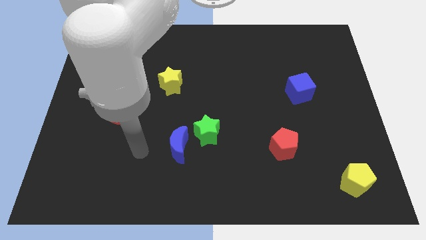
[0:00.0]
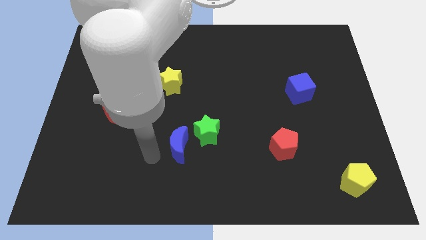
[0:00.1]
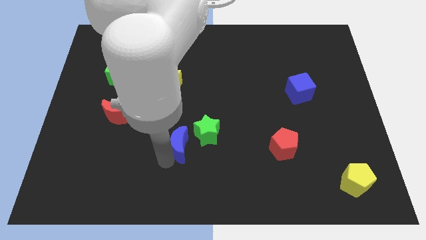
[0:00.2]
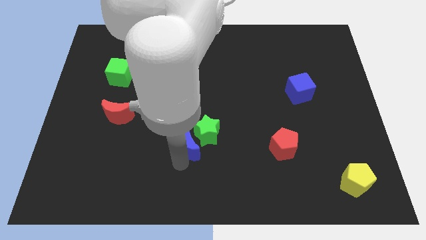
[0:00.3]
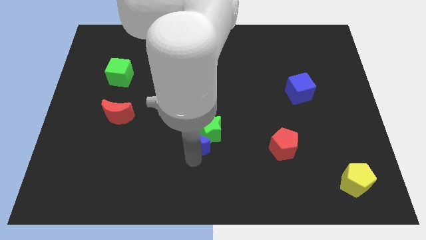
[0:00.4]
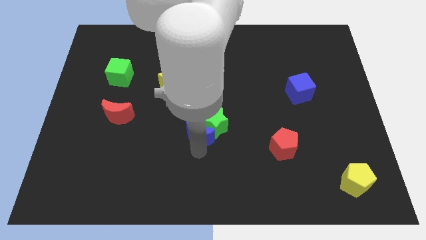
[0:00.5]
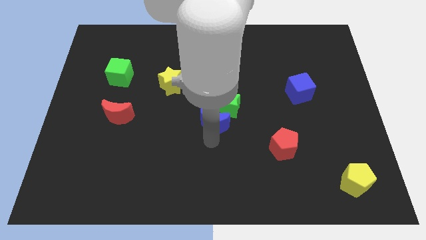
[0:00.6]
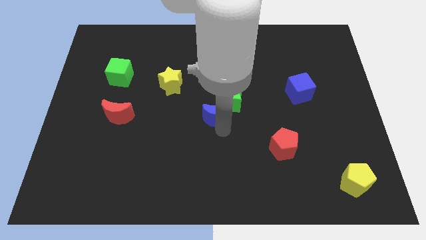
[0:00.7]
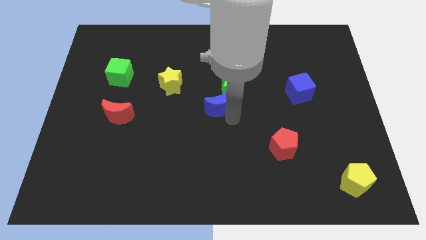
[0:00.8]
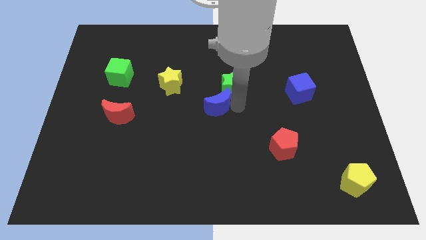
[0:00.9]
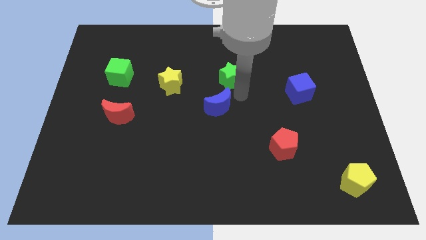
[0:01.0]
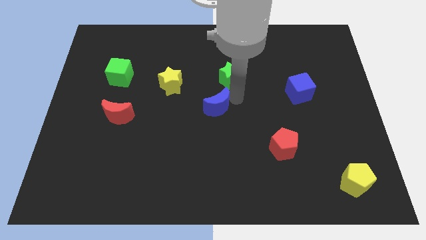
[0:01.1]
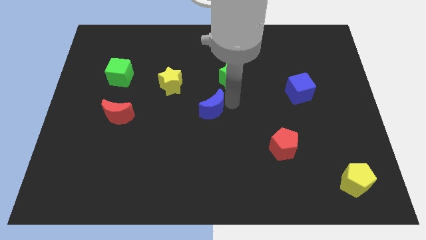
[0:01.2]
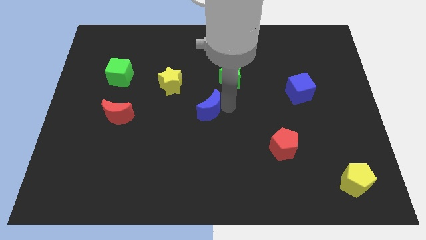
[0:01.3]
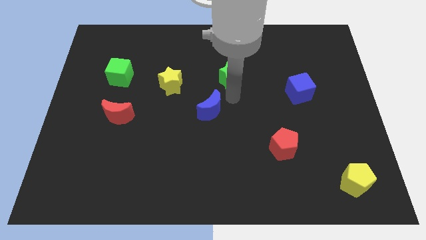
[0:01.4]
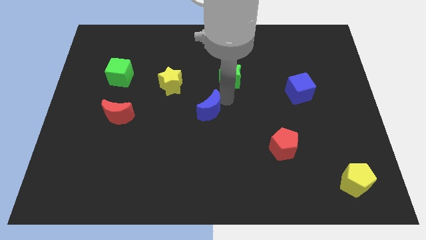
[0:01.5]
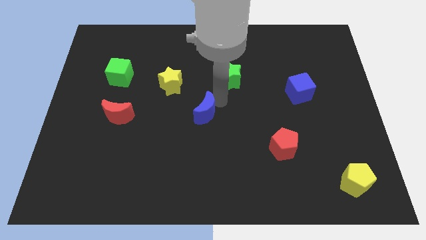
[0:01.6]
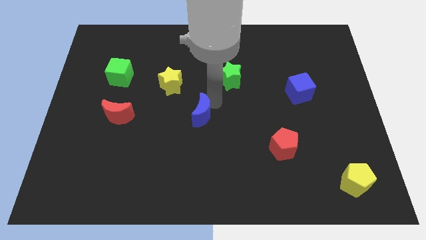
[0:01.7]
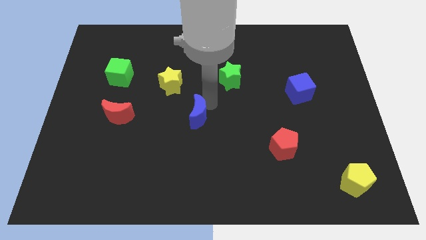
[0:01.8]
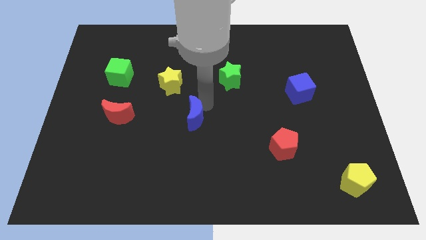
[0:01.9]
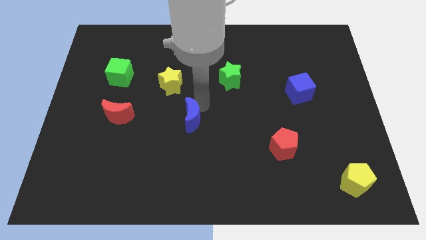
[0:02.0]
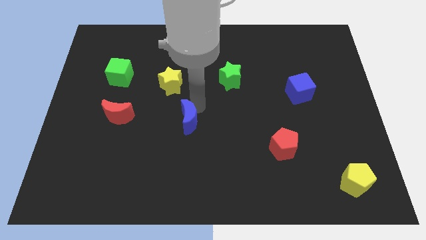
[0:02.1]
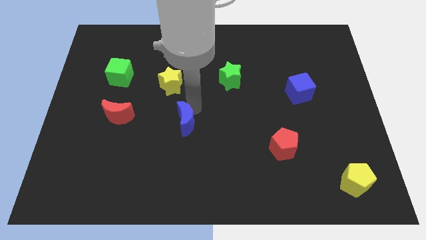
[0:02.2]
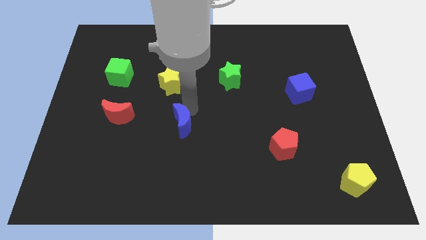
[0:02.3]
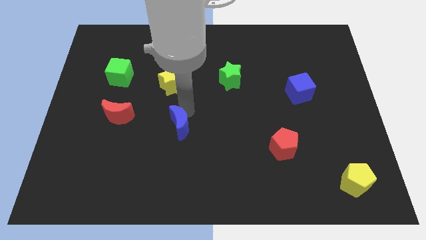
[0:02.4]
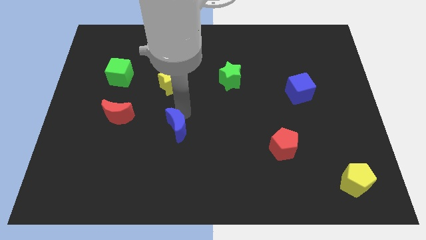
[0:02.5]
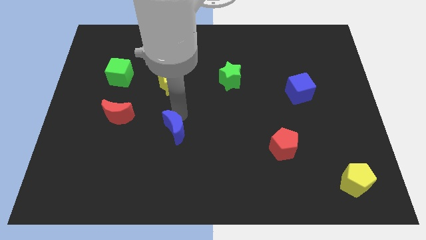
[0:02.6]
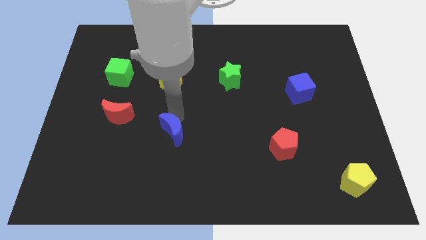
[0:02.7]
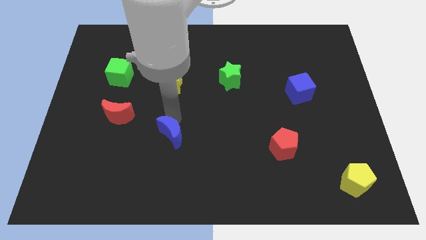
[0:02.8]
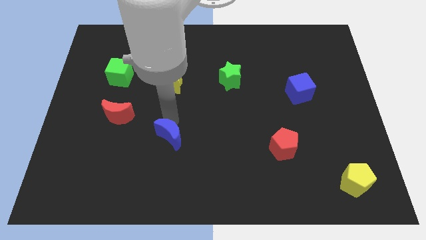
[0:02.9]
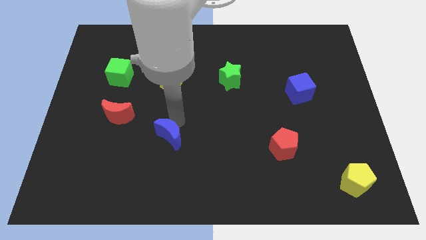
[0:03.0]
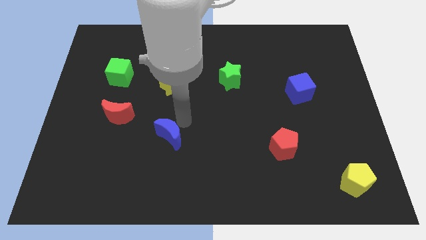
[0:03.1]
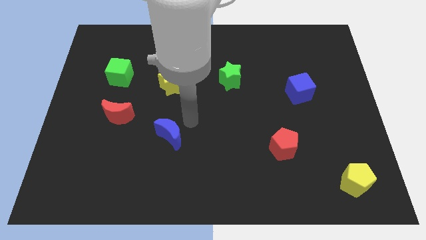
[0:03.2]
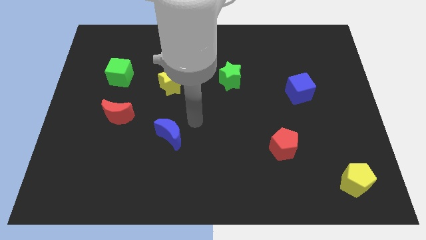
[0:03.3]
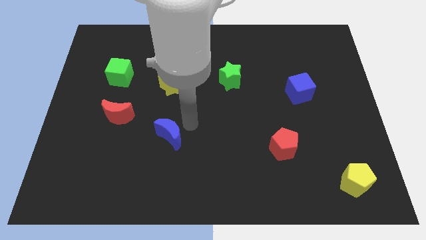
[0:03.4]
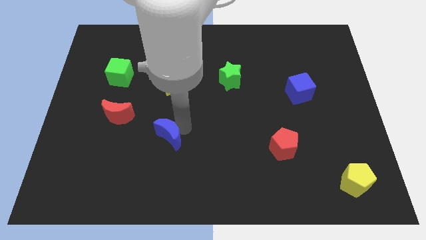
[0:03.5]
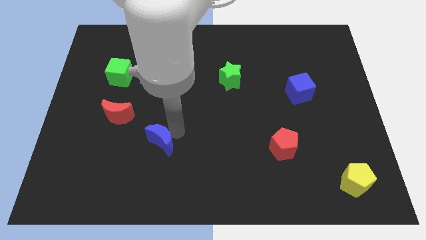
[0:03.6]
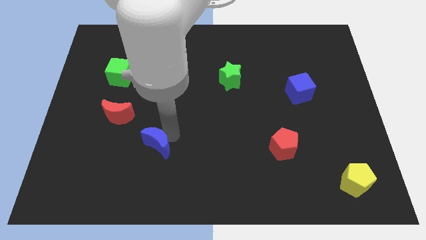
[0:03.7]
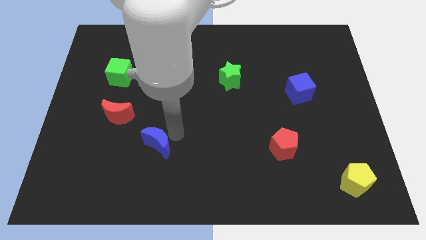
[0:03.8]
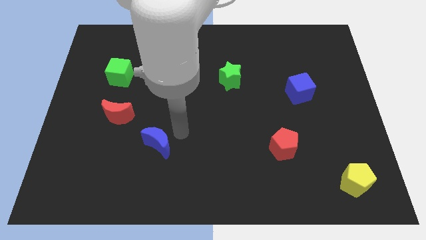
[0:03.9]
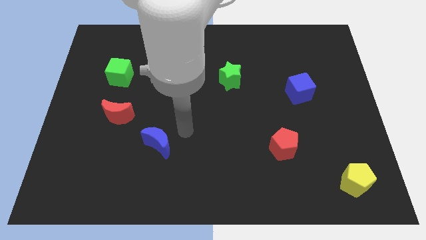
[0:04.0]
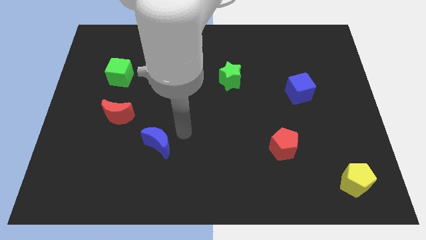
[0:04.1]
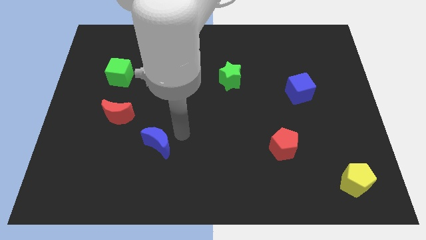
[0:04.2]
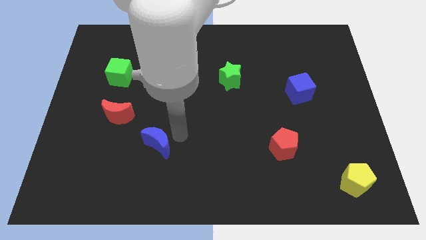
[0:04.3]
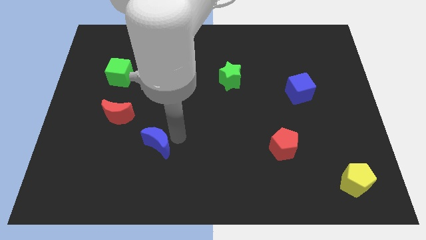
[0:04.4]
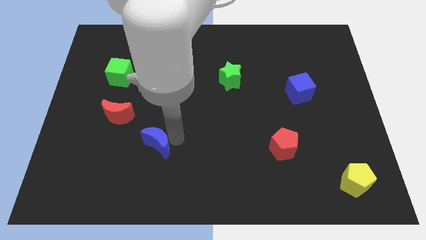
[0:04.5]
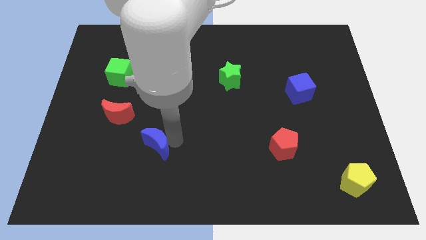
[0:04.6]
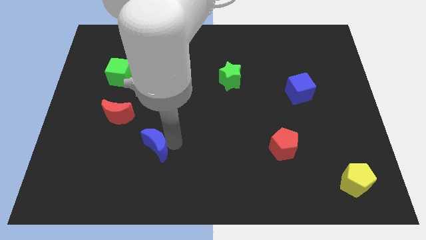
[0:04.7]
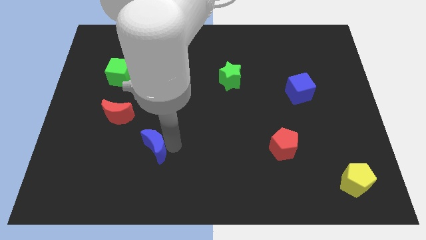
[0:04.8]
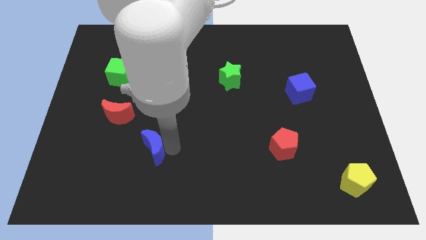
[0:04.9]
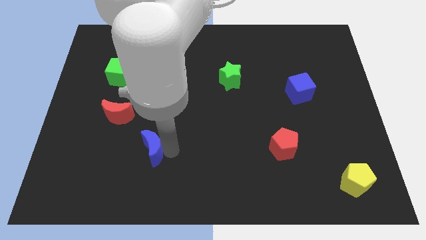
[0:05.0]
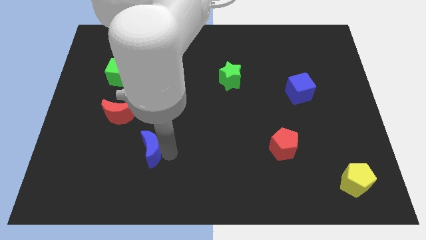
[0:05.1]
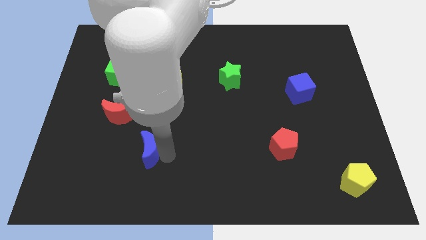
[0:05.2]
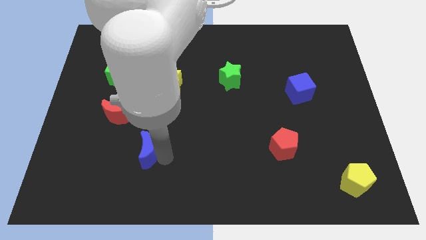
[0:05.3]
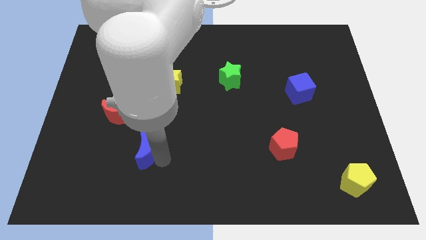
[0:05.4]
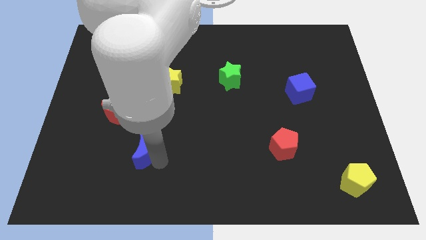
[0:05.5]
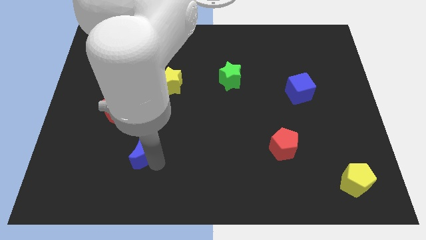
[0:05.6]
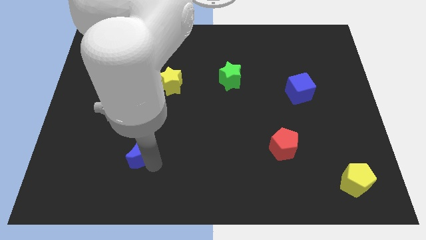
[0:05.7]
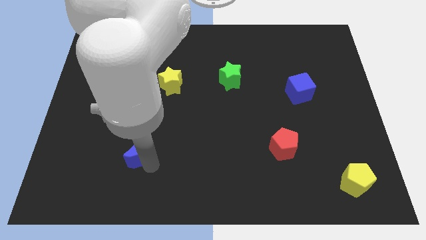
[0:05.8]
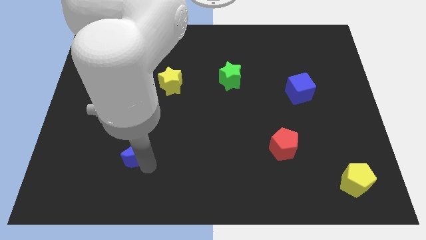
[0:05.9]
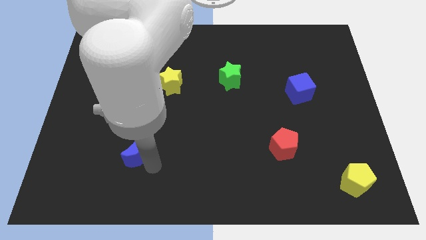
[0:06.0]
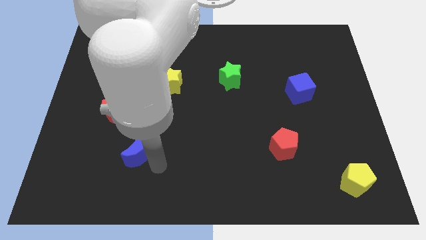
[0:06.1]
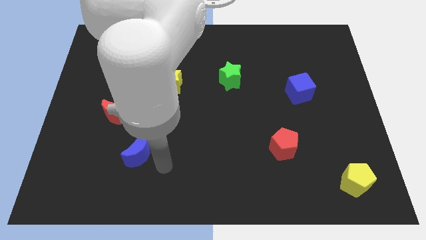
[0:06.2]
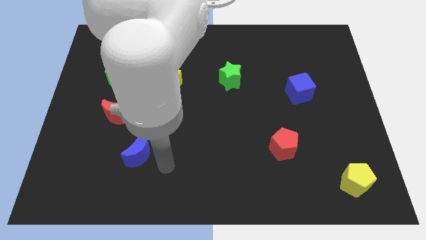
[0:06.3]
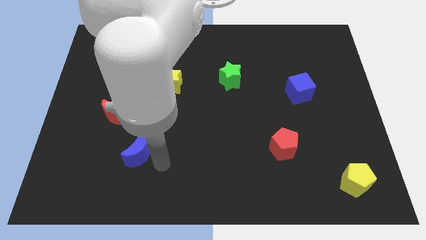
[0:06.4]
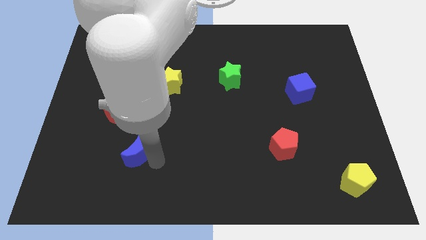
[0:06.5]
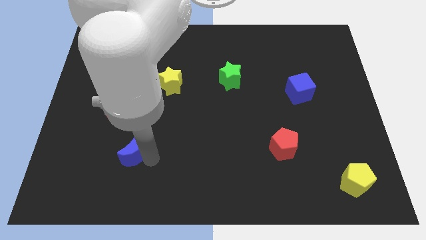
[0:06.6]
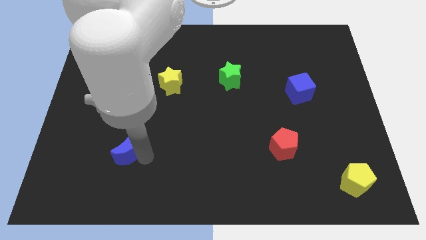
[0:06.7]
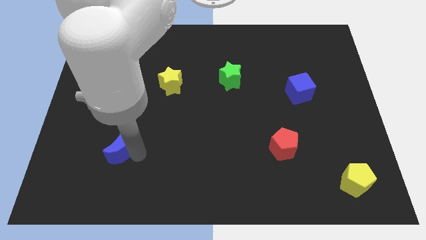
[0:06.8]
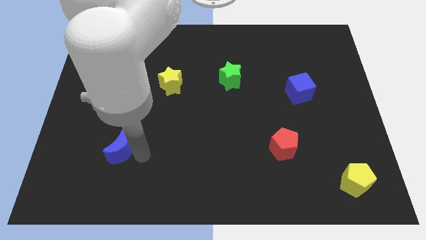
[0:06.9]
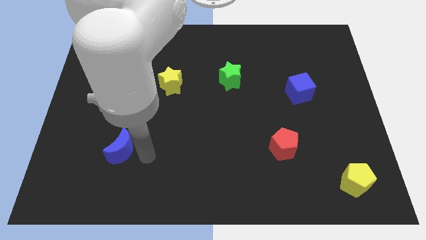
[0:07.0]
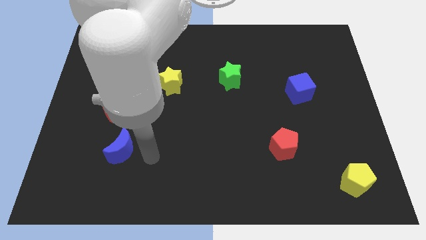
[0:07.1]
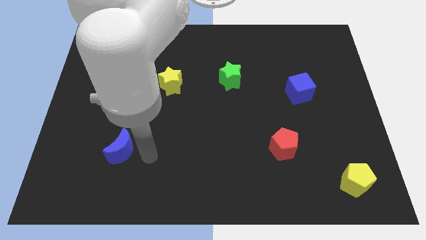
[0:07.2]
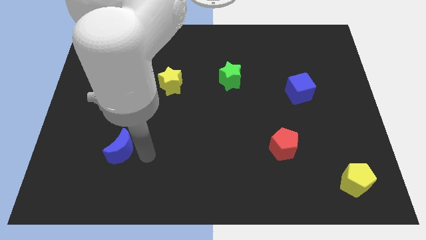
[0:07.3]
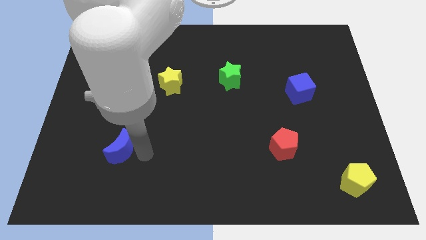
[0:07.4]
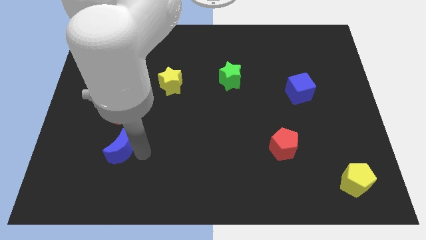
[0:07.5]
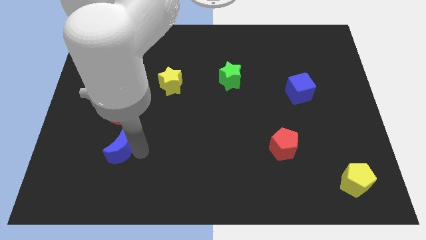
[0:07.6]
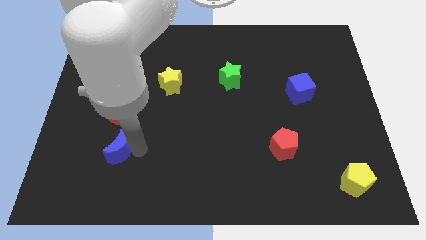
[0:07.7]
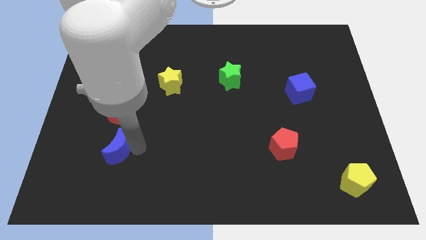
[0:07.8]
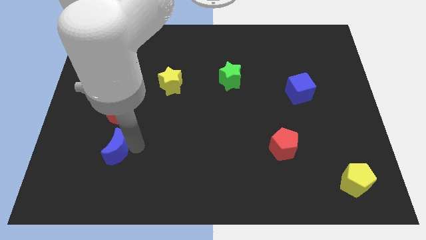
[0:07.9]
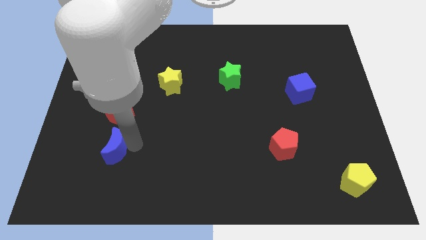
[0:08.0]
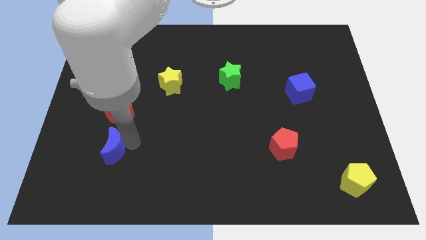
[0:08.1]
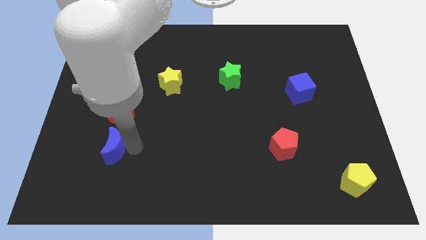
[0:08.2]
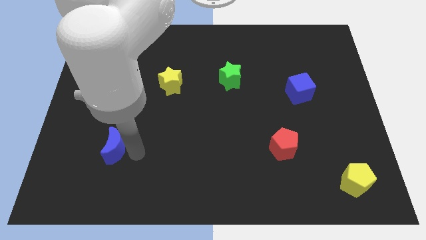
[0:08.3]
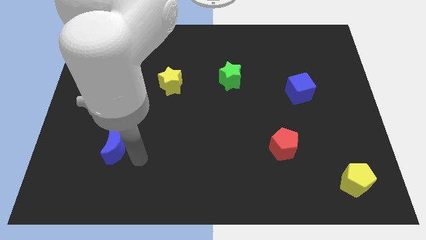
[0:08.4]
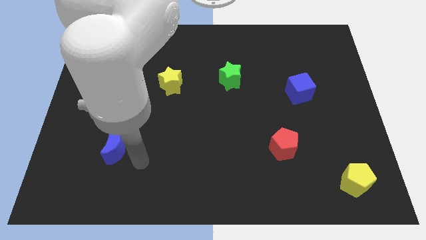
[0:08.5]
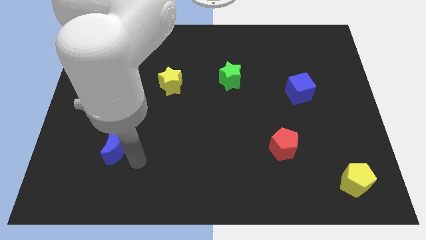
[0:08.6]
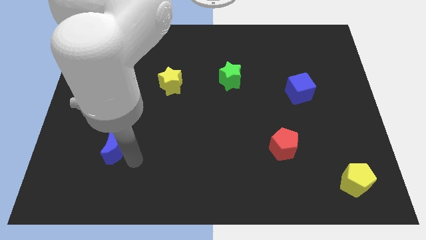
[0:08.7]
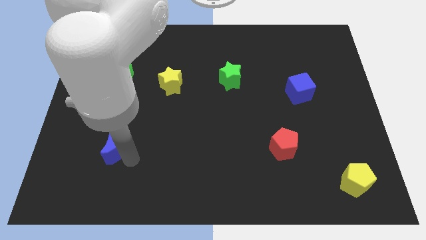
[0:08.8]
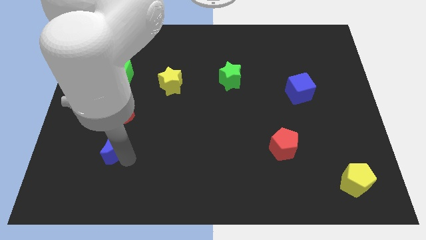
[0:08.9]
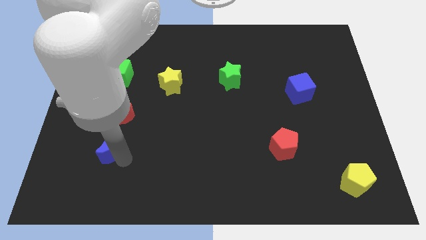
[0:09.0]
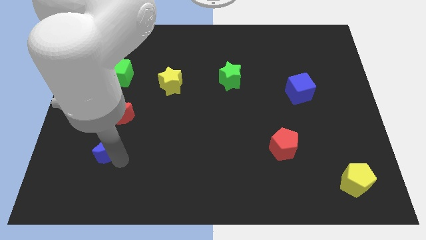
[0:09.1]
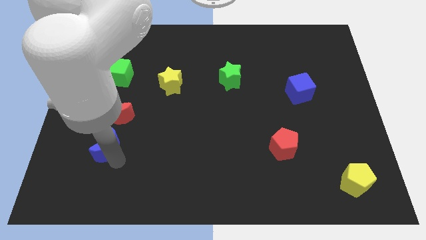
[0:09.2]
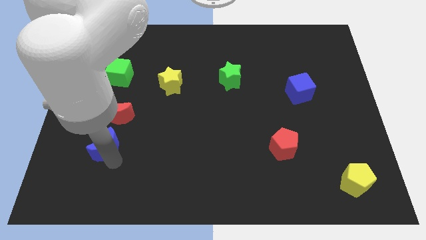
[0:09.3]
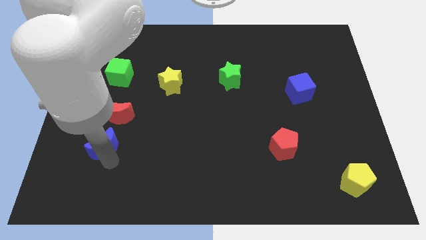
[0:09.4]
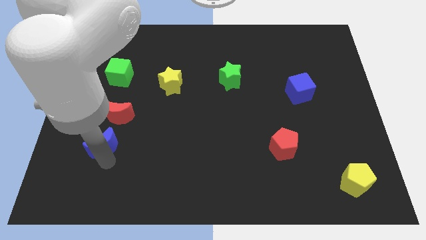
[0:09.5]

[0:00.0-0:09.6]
push the blue moon to the bottom left side of the red moon
